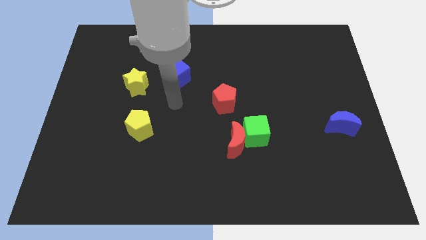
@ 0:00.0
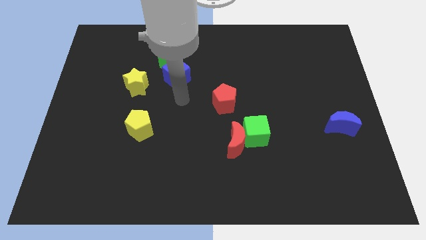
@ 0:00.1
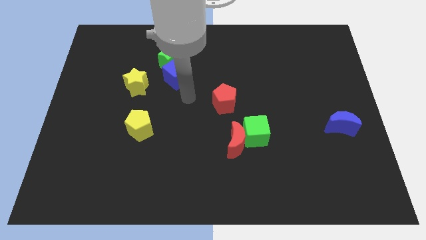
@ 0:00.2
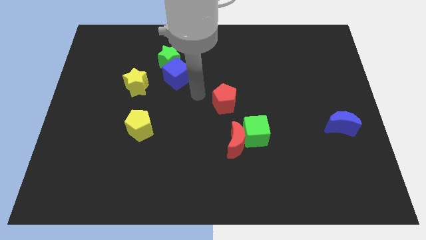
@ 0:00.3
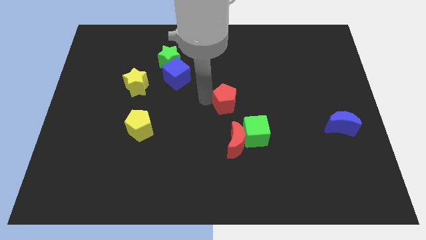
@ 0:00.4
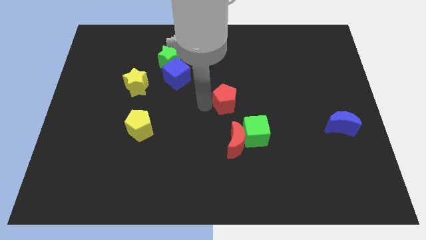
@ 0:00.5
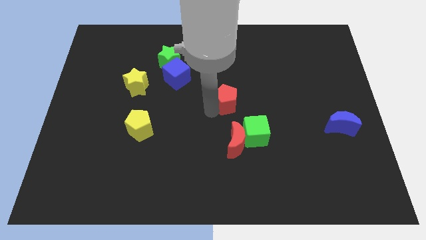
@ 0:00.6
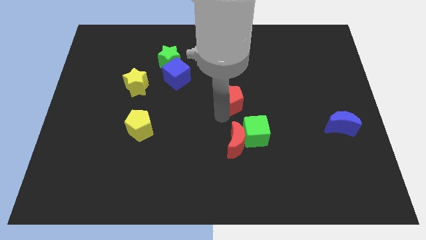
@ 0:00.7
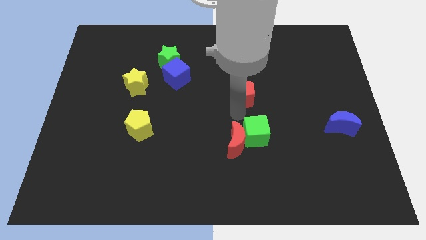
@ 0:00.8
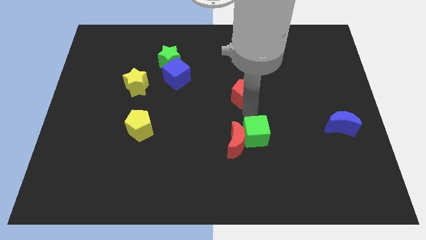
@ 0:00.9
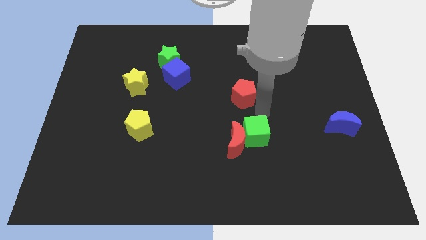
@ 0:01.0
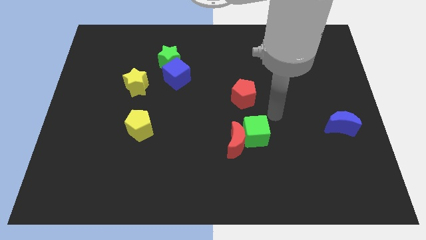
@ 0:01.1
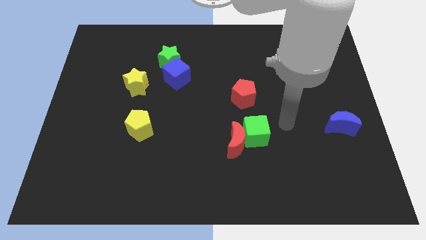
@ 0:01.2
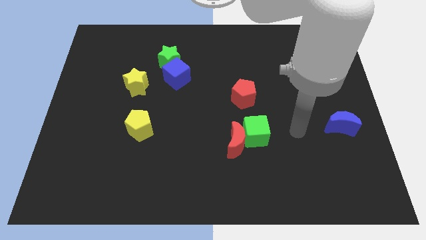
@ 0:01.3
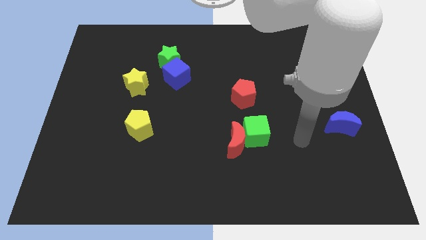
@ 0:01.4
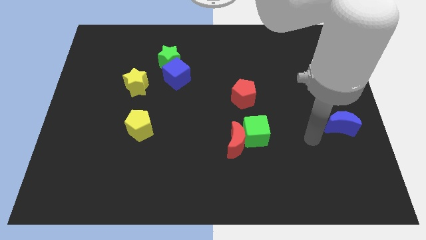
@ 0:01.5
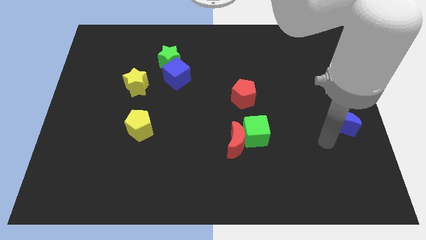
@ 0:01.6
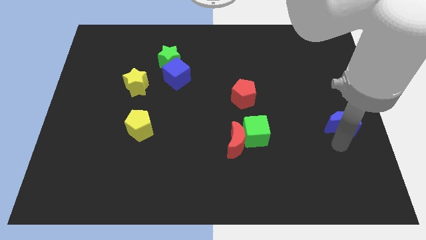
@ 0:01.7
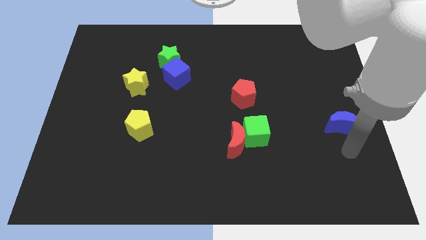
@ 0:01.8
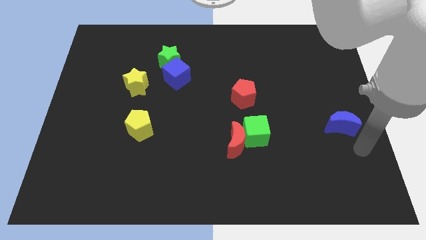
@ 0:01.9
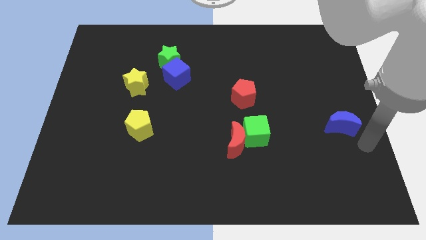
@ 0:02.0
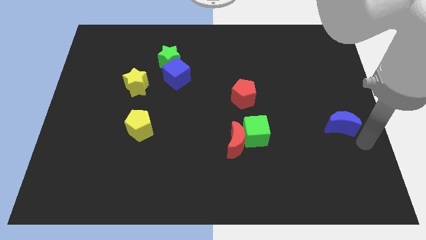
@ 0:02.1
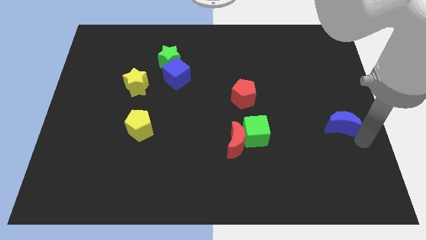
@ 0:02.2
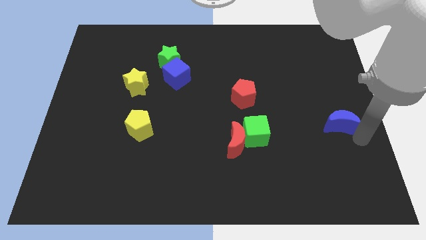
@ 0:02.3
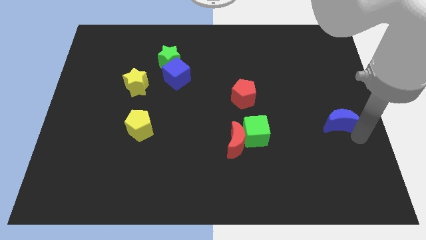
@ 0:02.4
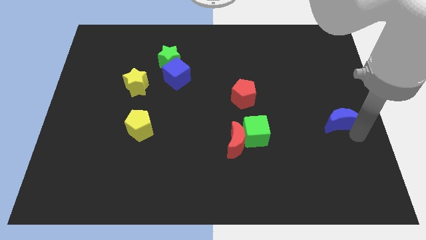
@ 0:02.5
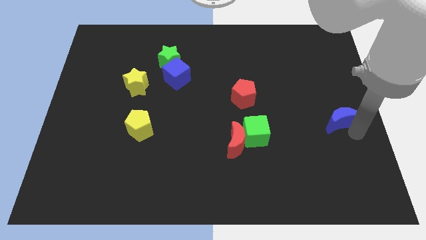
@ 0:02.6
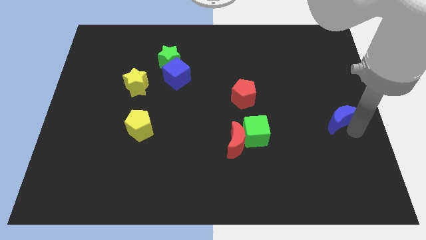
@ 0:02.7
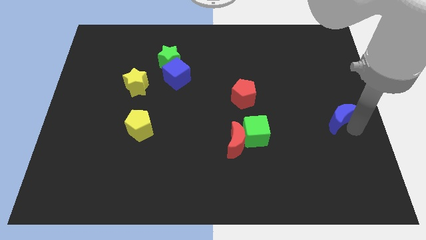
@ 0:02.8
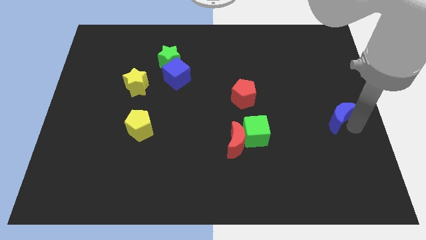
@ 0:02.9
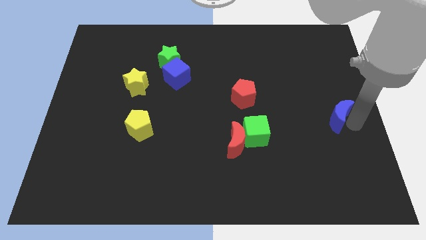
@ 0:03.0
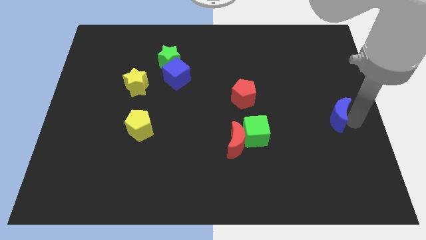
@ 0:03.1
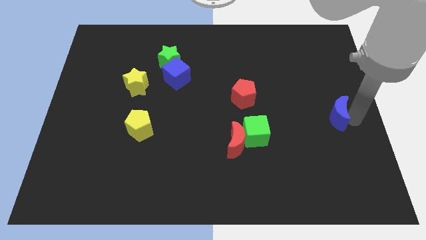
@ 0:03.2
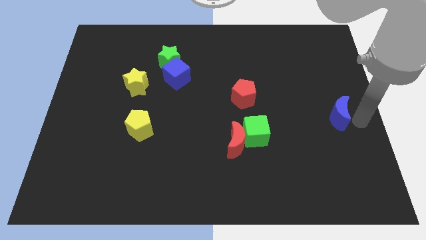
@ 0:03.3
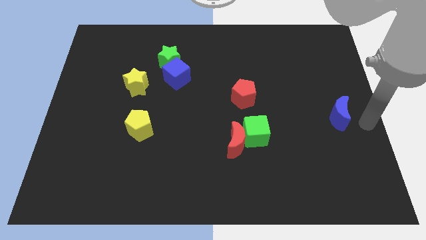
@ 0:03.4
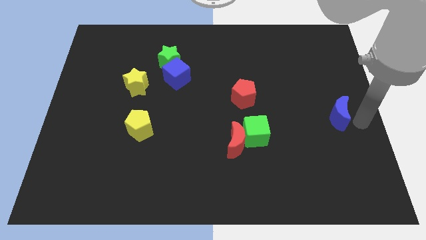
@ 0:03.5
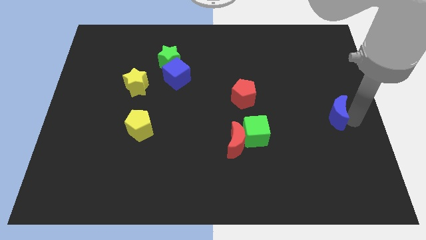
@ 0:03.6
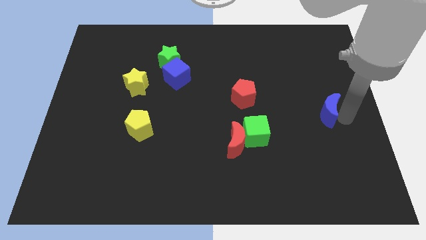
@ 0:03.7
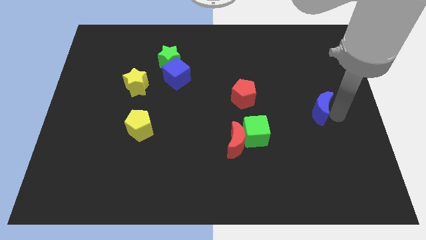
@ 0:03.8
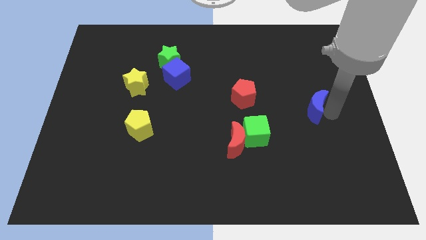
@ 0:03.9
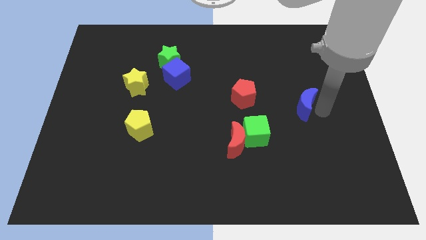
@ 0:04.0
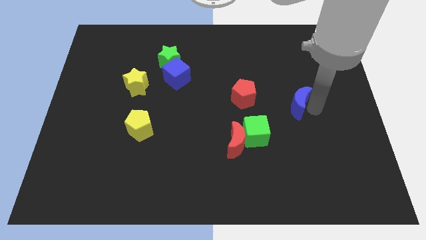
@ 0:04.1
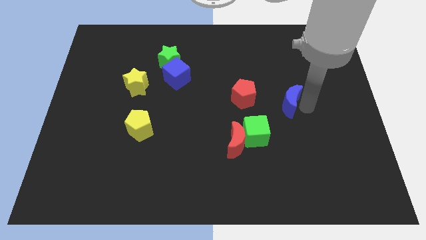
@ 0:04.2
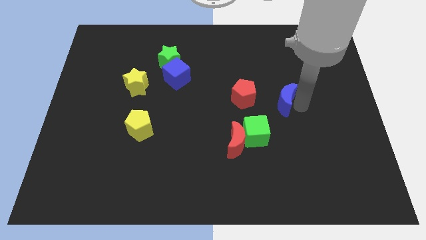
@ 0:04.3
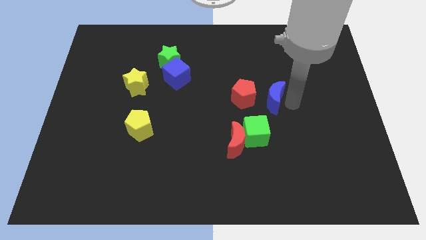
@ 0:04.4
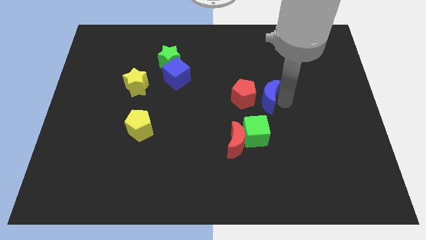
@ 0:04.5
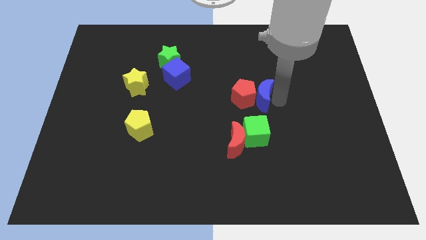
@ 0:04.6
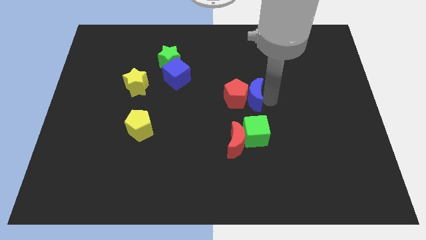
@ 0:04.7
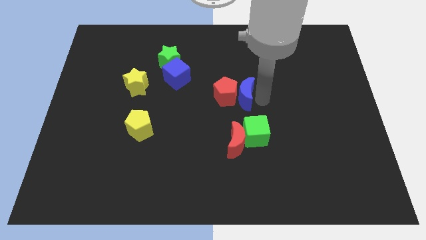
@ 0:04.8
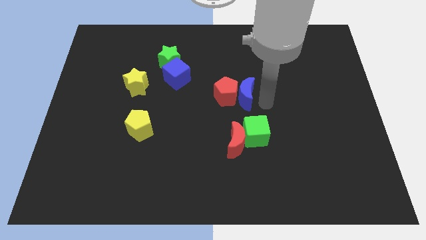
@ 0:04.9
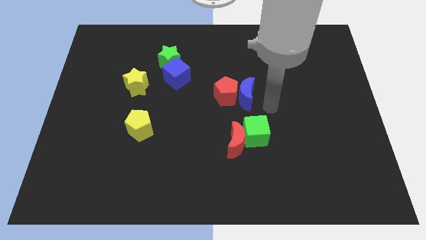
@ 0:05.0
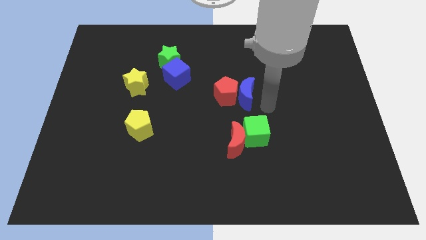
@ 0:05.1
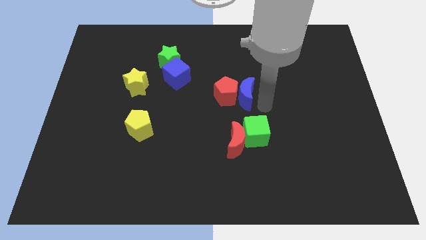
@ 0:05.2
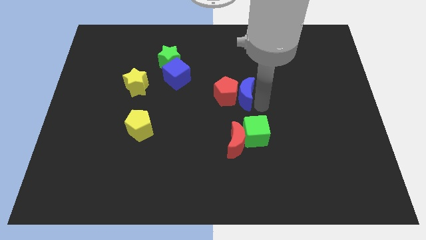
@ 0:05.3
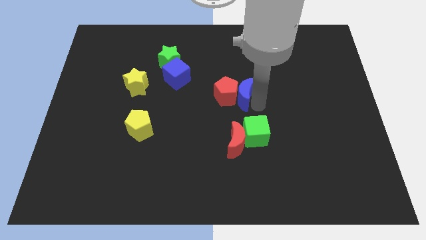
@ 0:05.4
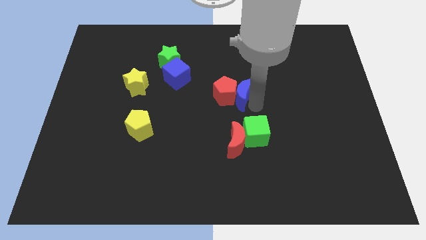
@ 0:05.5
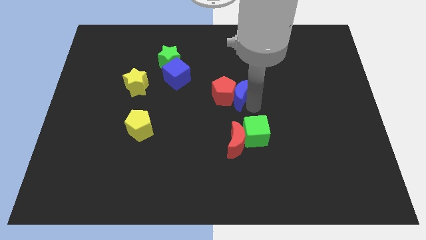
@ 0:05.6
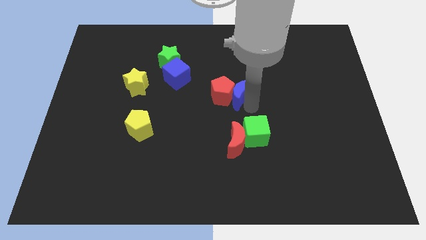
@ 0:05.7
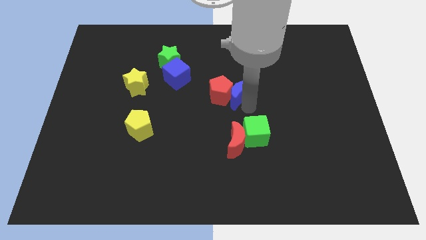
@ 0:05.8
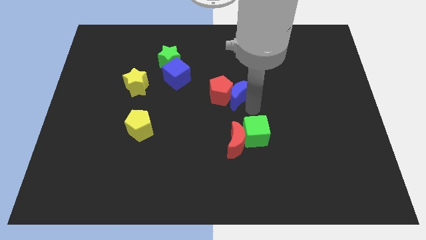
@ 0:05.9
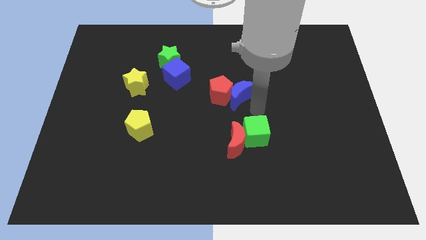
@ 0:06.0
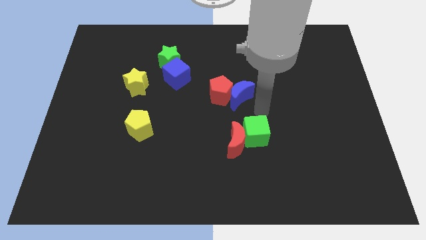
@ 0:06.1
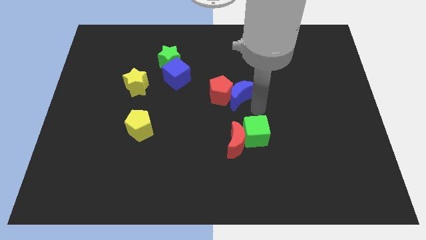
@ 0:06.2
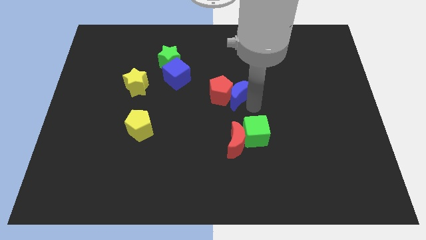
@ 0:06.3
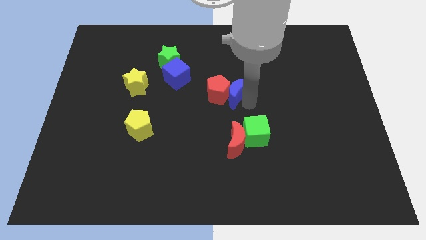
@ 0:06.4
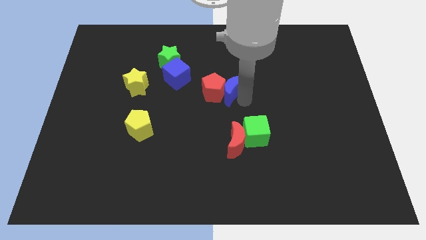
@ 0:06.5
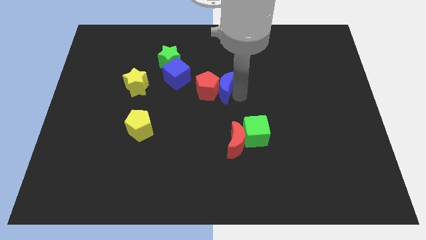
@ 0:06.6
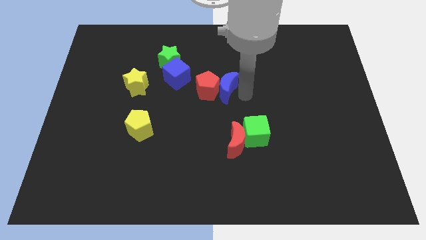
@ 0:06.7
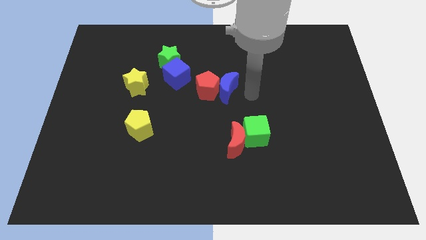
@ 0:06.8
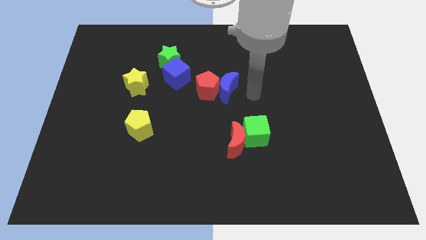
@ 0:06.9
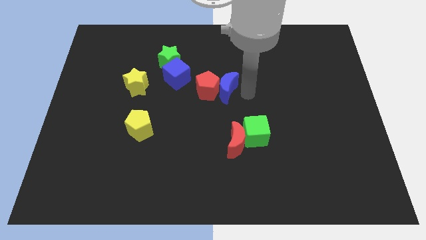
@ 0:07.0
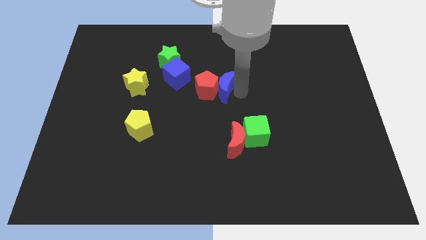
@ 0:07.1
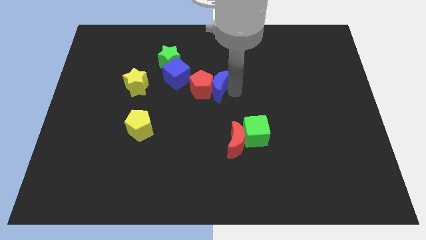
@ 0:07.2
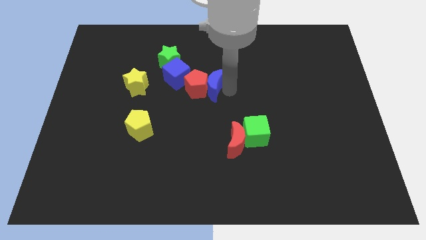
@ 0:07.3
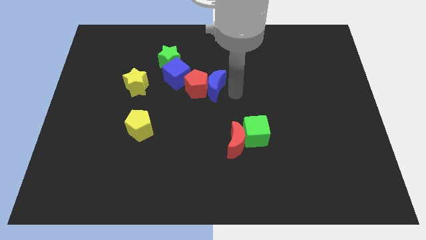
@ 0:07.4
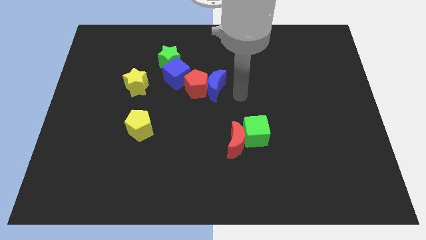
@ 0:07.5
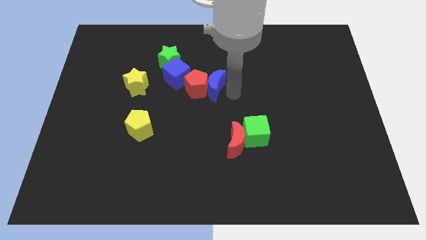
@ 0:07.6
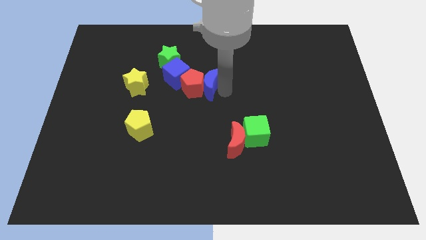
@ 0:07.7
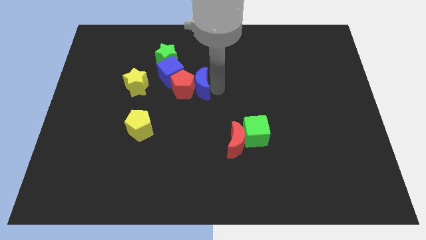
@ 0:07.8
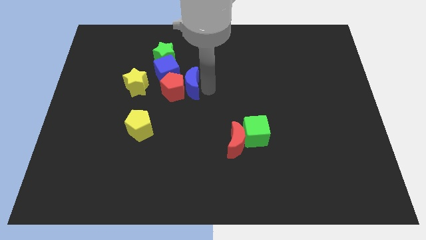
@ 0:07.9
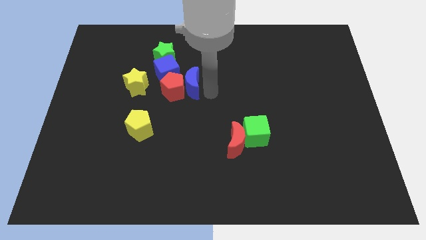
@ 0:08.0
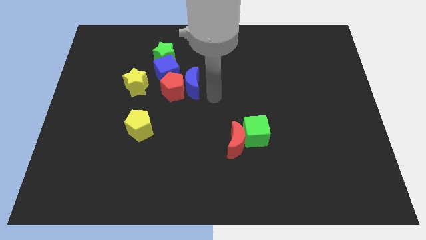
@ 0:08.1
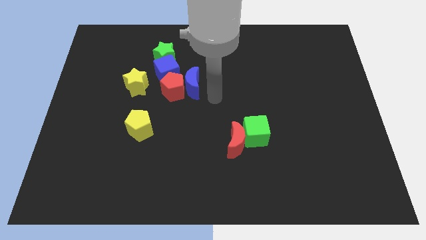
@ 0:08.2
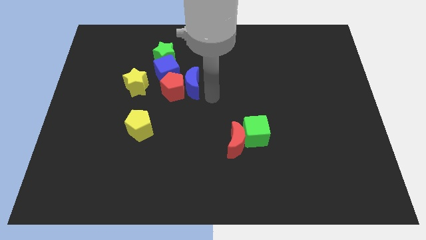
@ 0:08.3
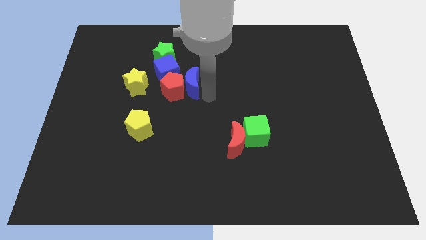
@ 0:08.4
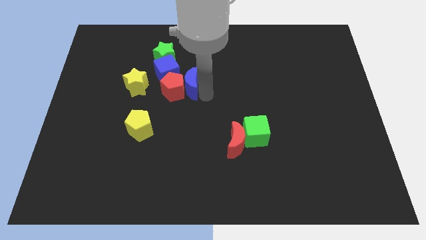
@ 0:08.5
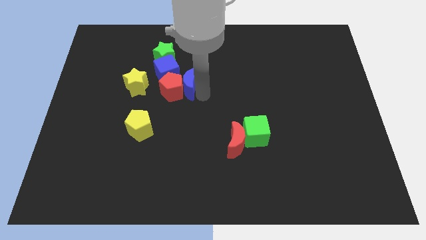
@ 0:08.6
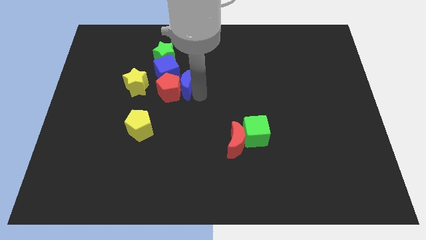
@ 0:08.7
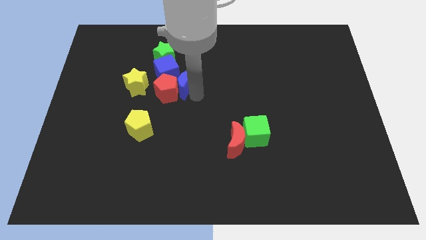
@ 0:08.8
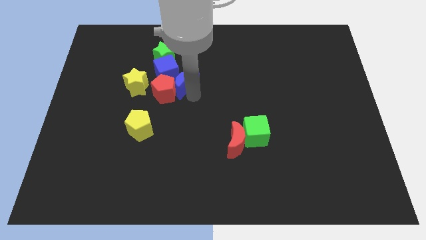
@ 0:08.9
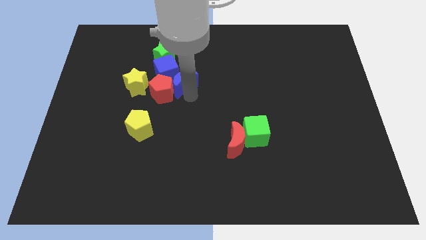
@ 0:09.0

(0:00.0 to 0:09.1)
slide the blue moon next to the blue cube
